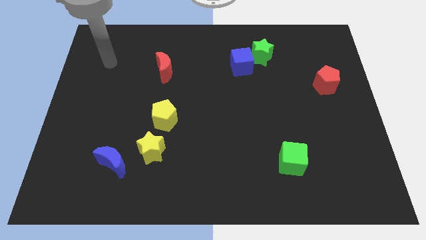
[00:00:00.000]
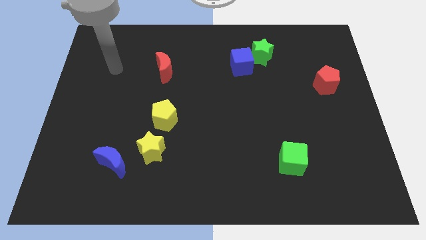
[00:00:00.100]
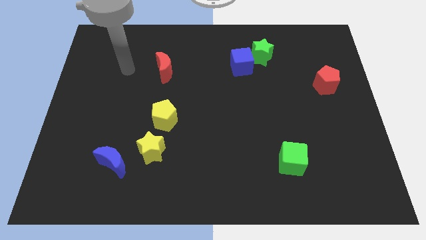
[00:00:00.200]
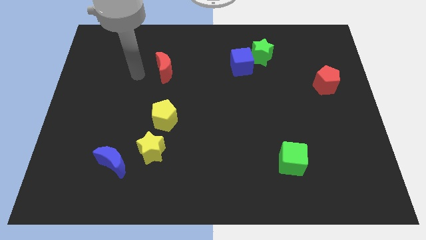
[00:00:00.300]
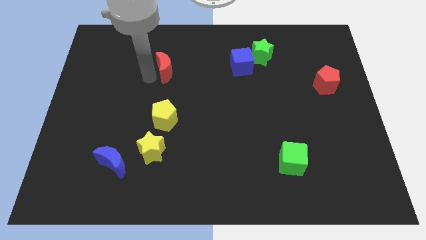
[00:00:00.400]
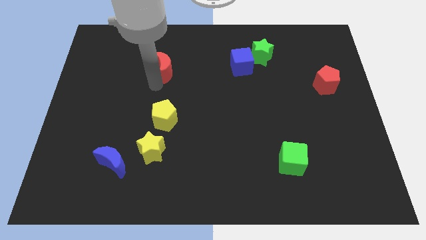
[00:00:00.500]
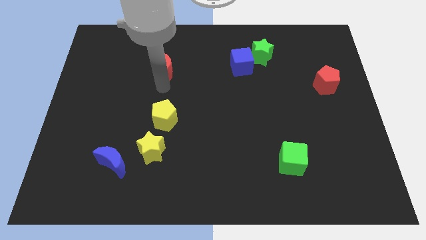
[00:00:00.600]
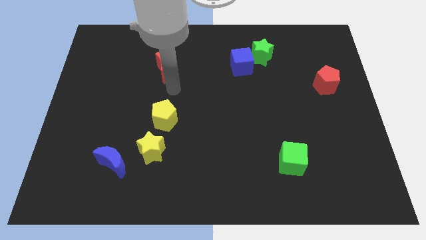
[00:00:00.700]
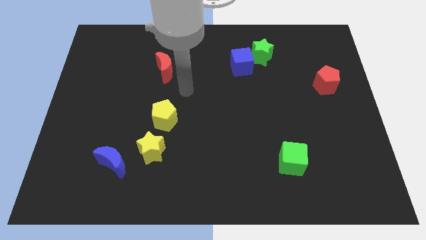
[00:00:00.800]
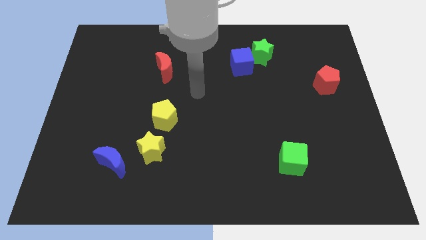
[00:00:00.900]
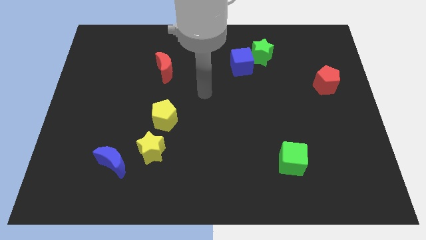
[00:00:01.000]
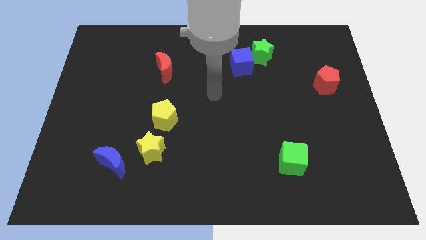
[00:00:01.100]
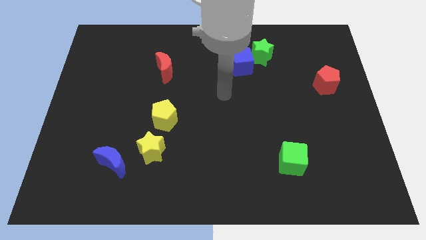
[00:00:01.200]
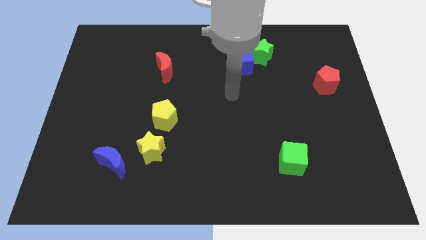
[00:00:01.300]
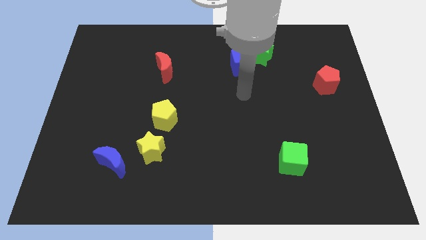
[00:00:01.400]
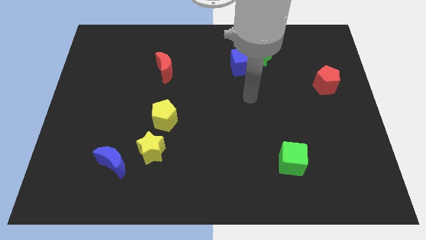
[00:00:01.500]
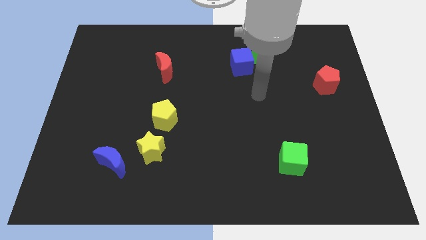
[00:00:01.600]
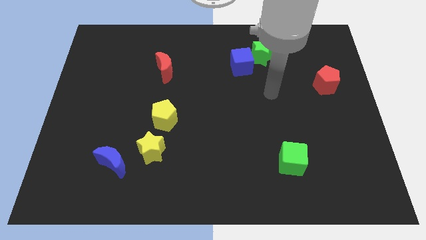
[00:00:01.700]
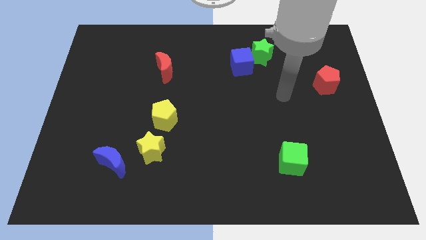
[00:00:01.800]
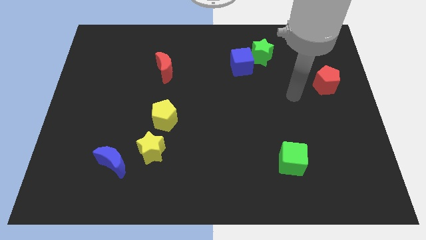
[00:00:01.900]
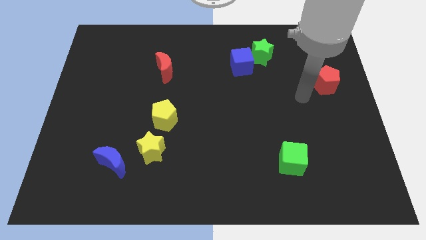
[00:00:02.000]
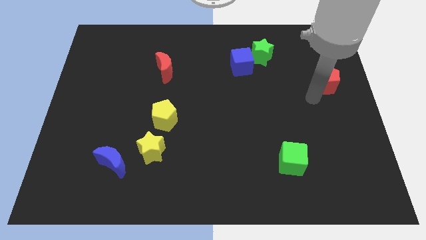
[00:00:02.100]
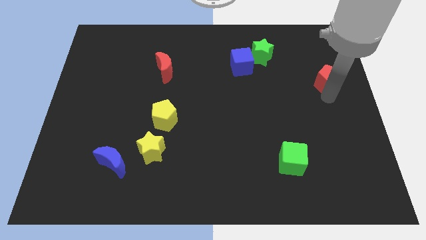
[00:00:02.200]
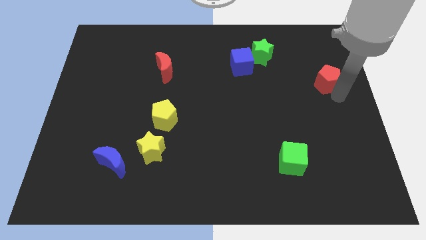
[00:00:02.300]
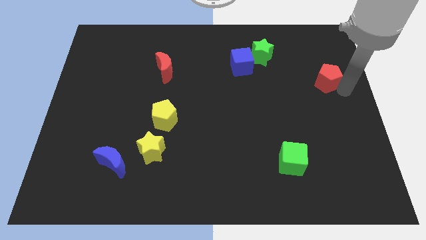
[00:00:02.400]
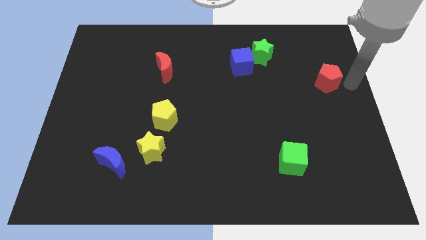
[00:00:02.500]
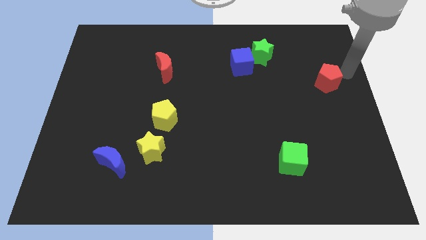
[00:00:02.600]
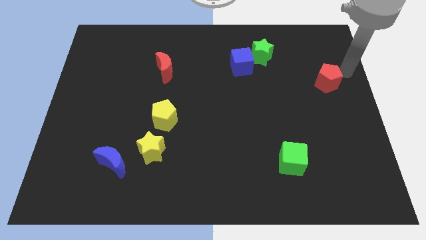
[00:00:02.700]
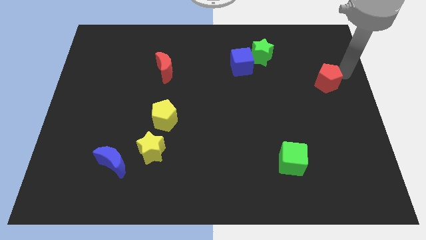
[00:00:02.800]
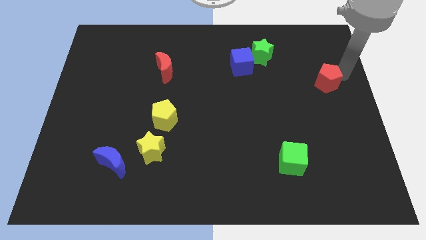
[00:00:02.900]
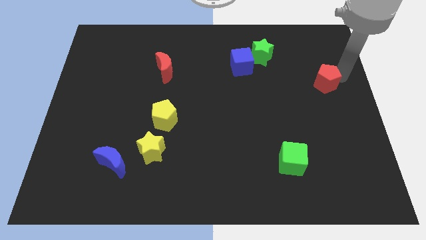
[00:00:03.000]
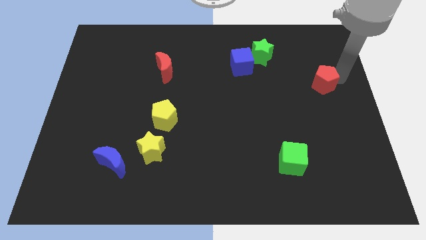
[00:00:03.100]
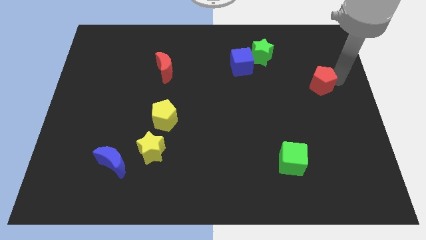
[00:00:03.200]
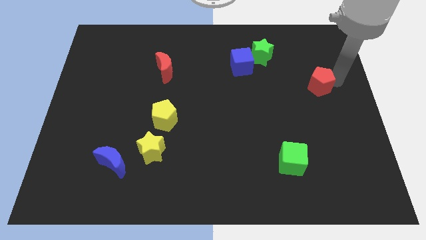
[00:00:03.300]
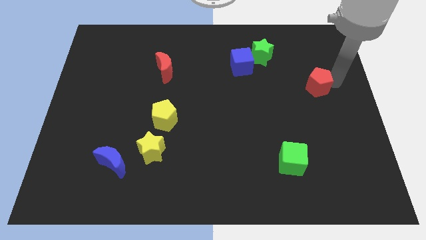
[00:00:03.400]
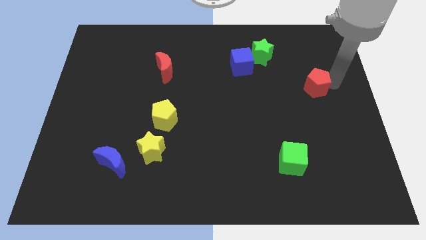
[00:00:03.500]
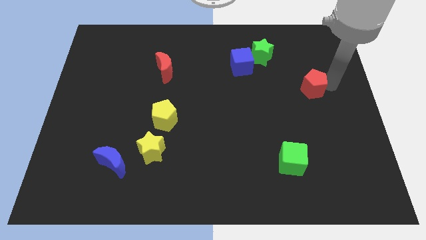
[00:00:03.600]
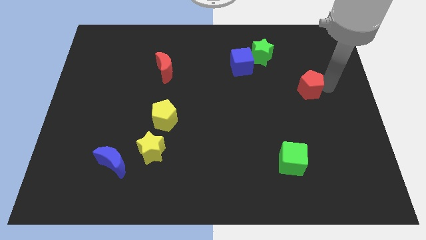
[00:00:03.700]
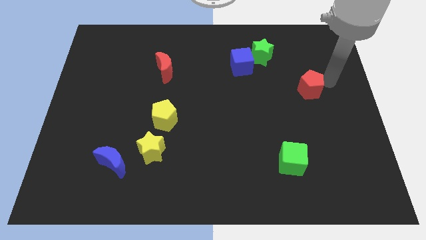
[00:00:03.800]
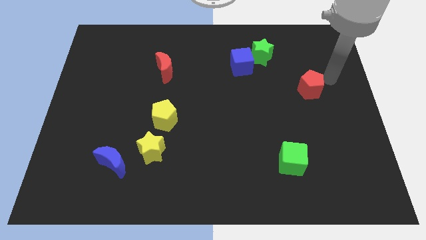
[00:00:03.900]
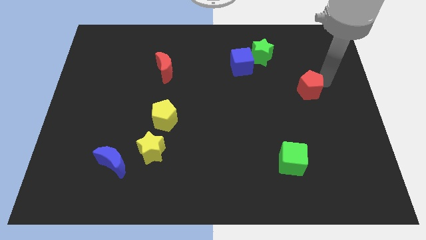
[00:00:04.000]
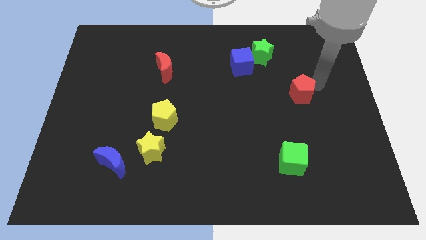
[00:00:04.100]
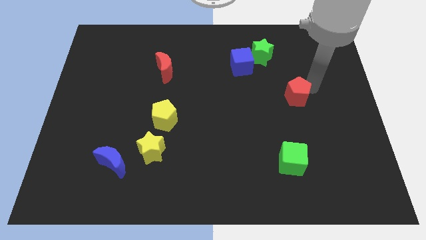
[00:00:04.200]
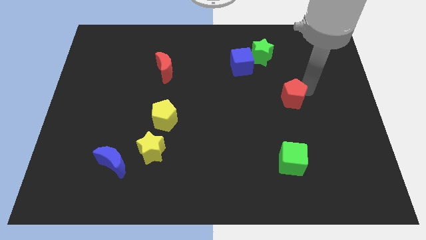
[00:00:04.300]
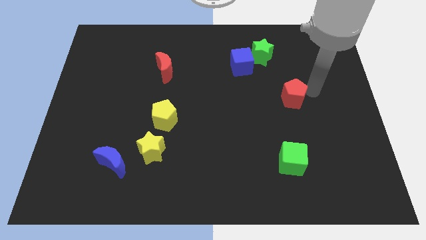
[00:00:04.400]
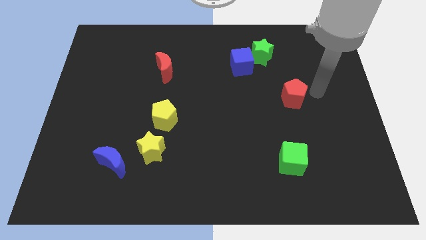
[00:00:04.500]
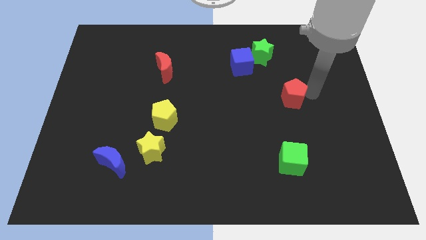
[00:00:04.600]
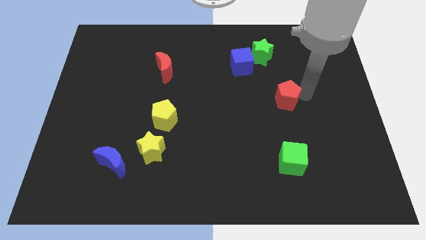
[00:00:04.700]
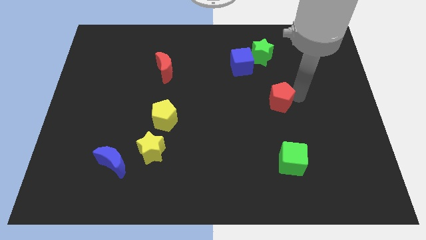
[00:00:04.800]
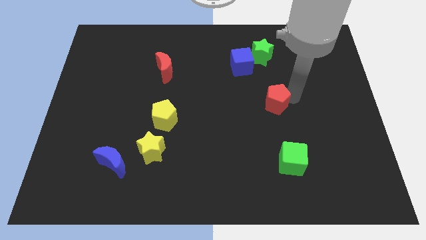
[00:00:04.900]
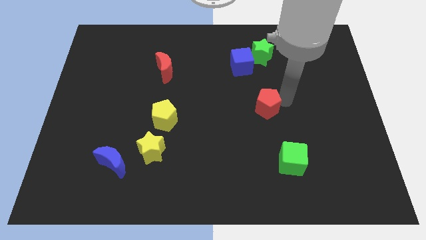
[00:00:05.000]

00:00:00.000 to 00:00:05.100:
move the red pentagon to the middle of the board

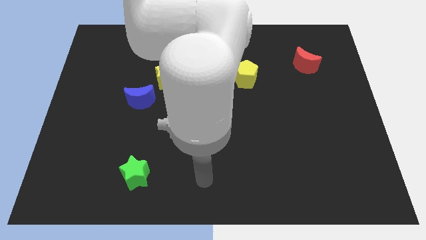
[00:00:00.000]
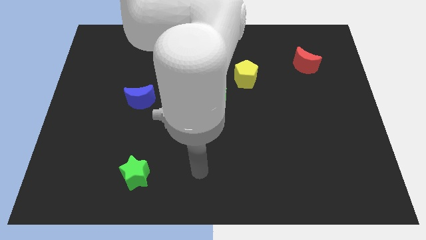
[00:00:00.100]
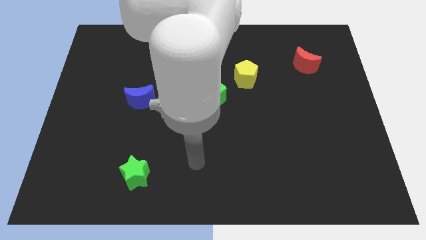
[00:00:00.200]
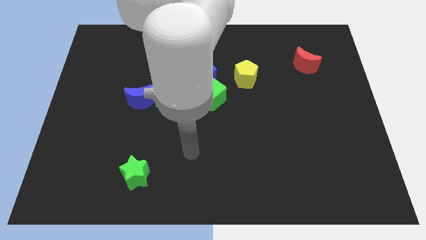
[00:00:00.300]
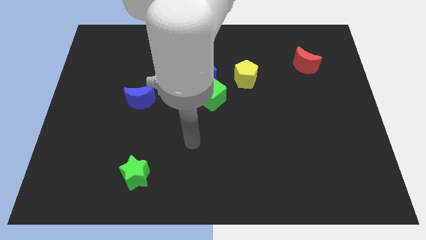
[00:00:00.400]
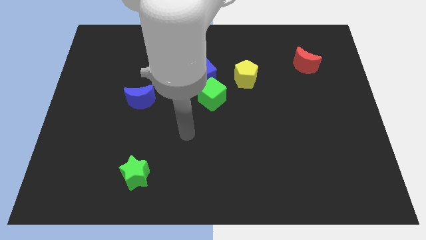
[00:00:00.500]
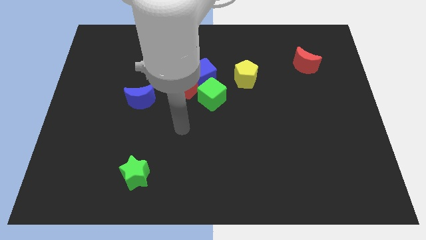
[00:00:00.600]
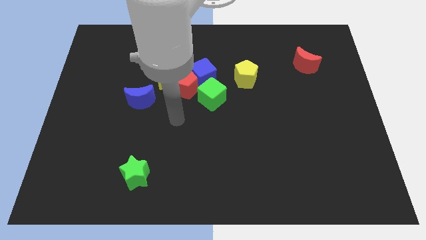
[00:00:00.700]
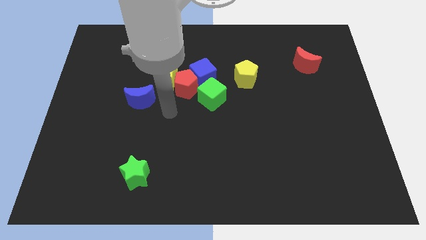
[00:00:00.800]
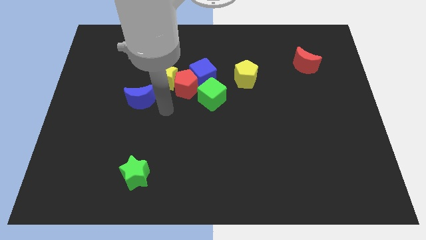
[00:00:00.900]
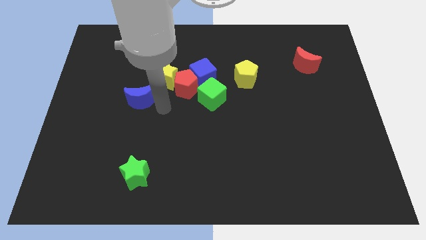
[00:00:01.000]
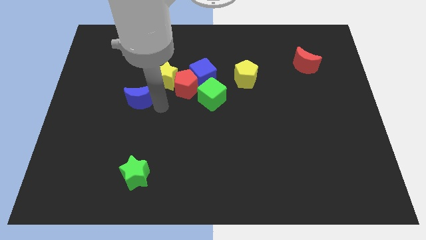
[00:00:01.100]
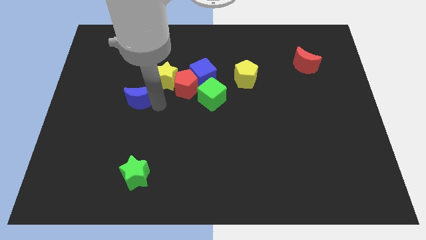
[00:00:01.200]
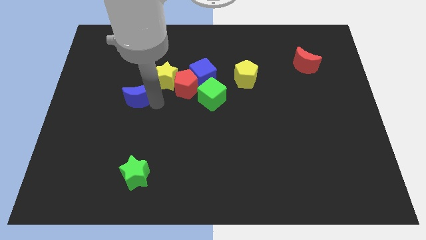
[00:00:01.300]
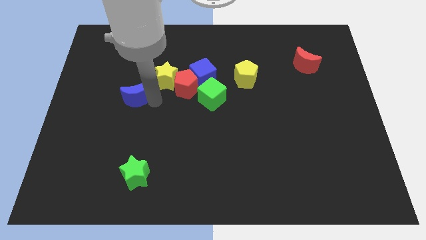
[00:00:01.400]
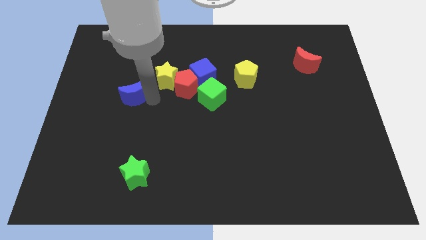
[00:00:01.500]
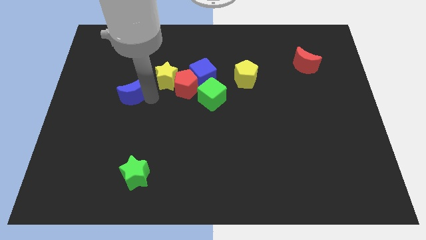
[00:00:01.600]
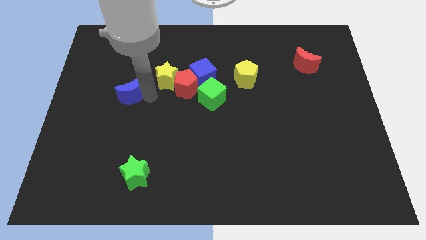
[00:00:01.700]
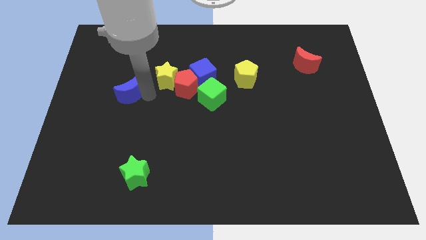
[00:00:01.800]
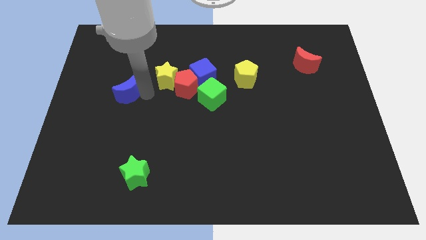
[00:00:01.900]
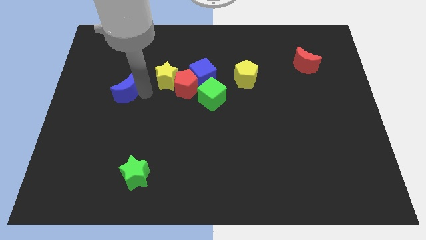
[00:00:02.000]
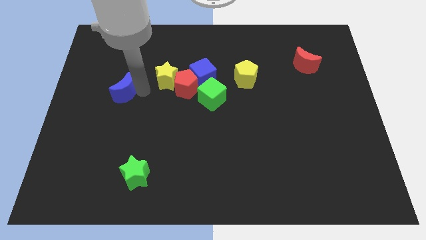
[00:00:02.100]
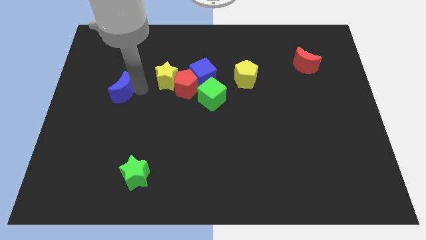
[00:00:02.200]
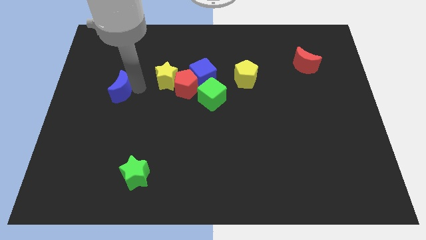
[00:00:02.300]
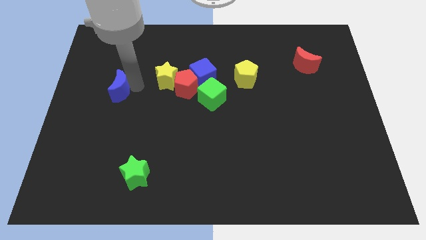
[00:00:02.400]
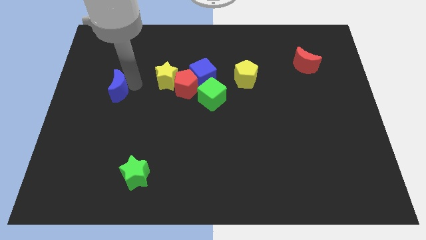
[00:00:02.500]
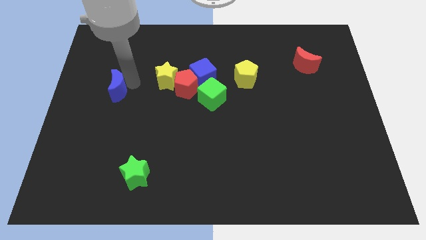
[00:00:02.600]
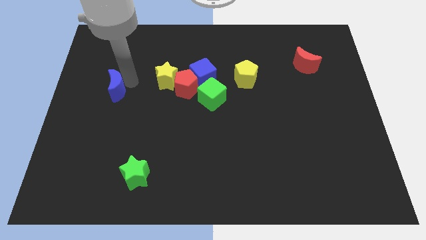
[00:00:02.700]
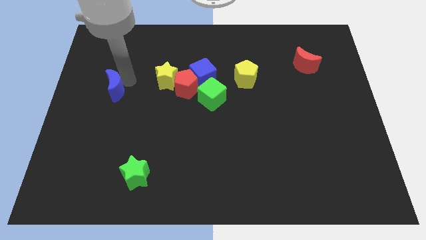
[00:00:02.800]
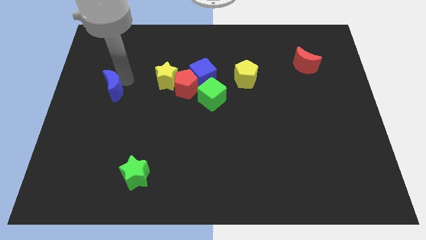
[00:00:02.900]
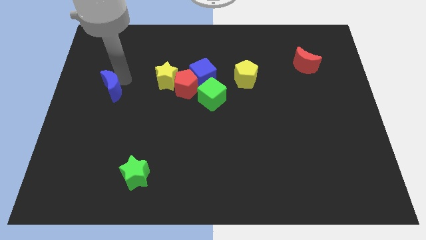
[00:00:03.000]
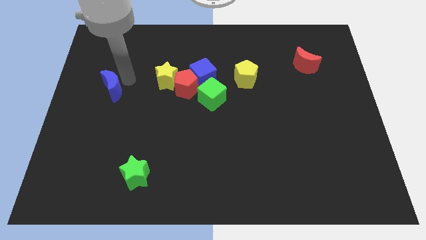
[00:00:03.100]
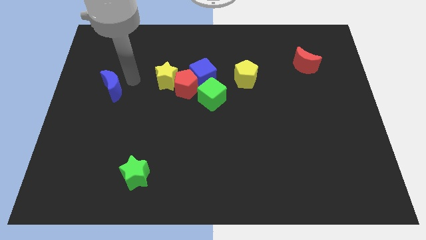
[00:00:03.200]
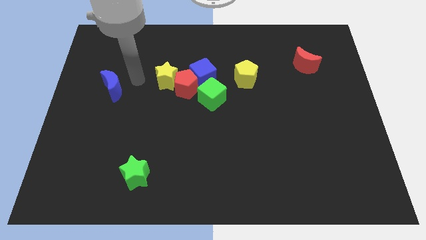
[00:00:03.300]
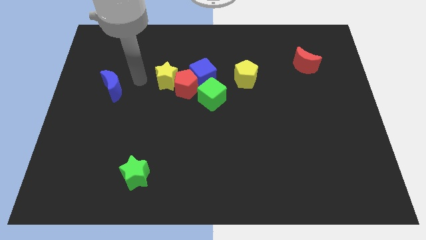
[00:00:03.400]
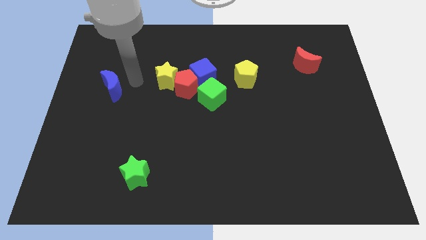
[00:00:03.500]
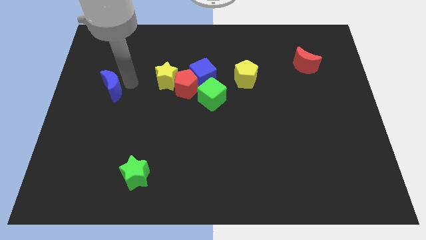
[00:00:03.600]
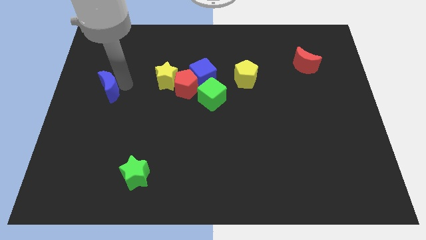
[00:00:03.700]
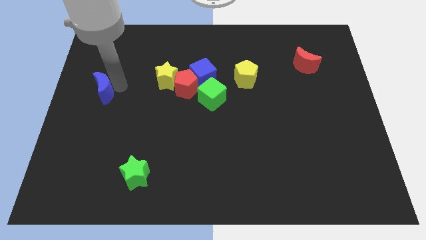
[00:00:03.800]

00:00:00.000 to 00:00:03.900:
move the blue moon to the left side
